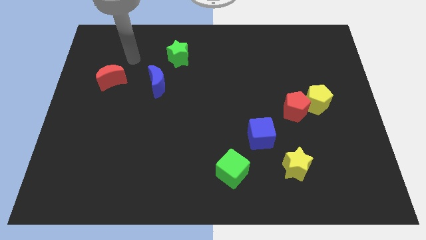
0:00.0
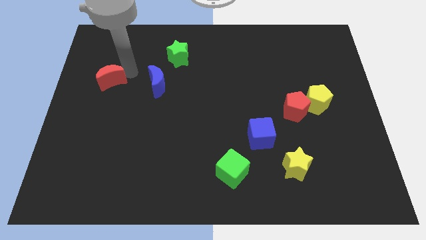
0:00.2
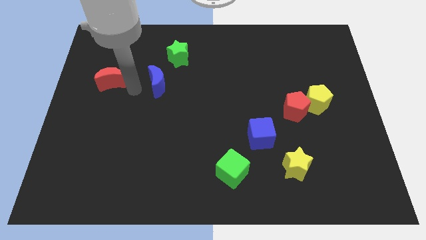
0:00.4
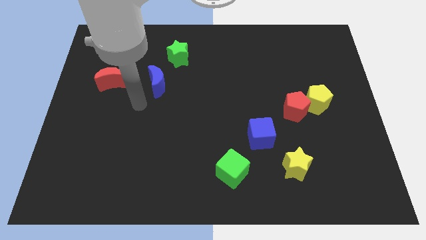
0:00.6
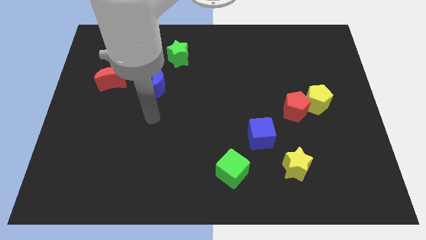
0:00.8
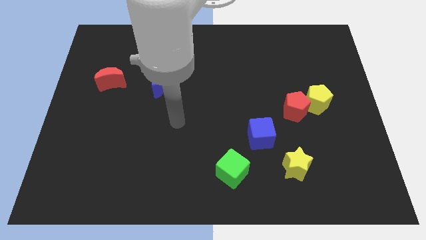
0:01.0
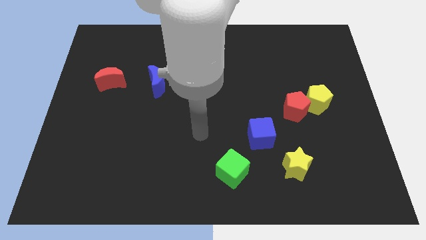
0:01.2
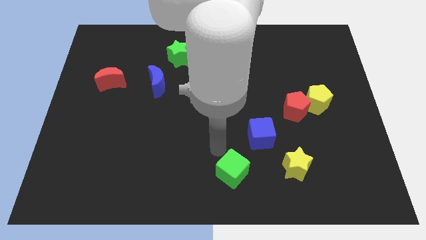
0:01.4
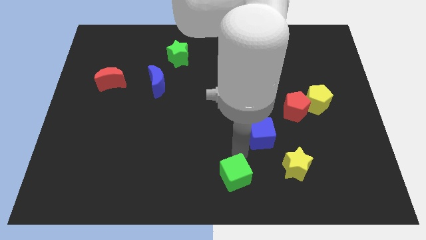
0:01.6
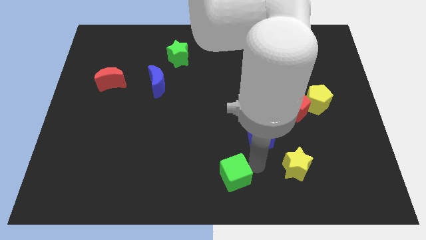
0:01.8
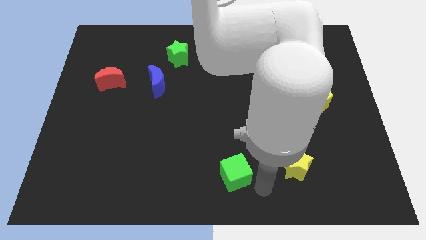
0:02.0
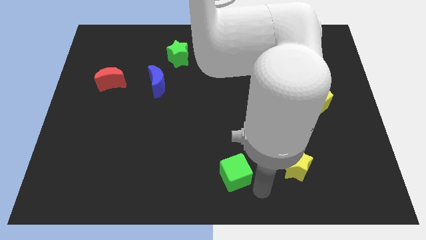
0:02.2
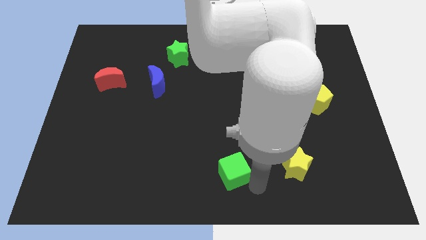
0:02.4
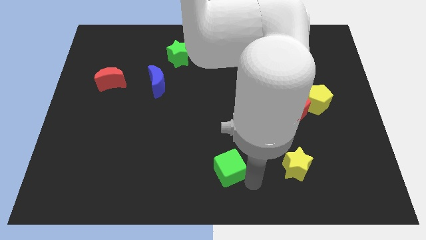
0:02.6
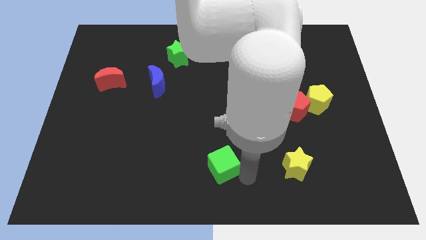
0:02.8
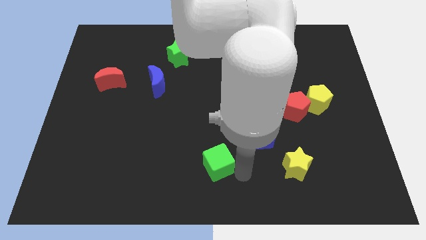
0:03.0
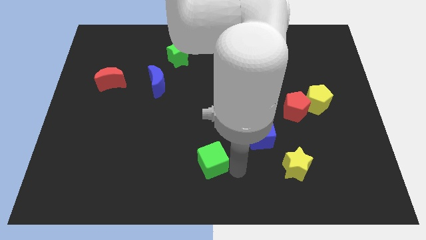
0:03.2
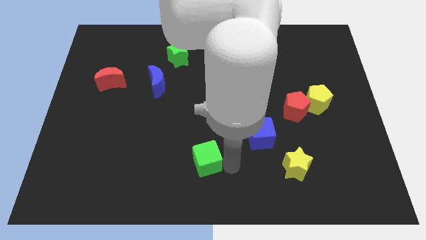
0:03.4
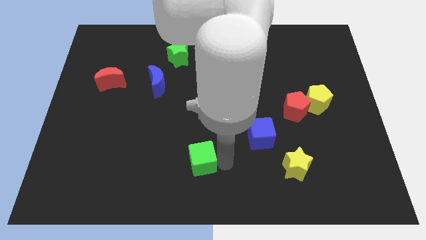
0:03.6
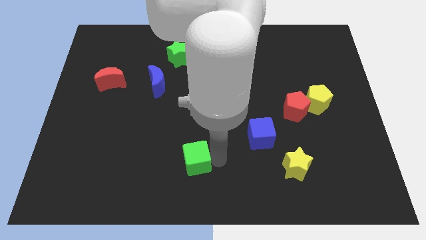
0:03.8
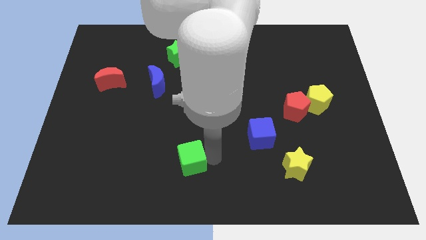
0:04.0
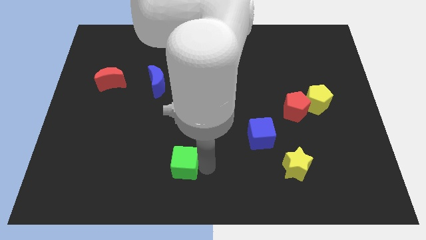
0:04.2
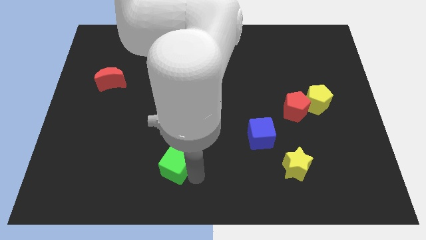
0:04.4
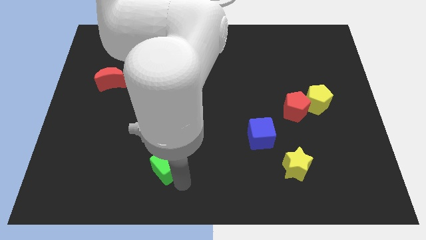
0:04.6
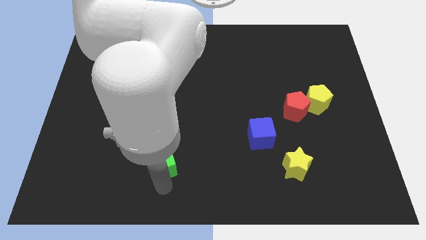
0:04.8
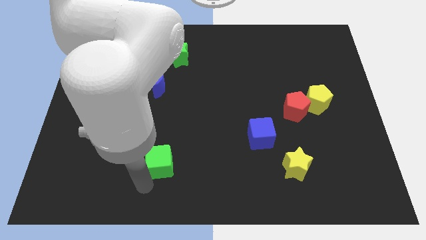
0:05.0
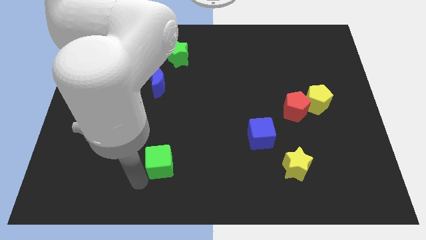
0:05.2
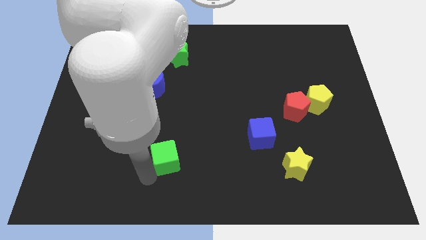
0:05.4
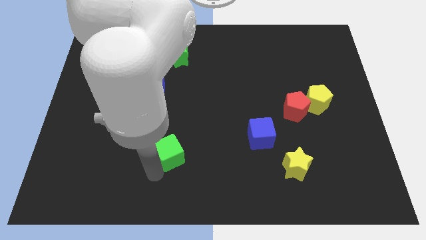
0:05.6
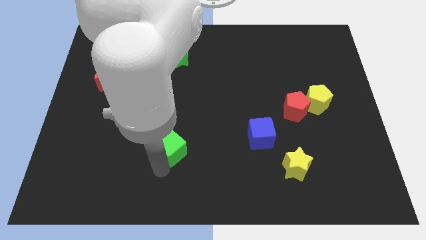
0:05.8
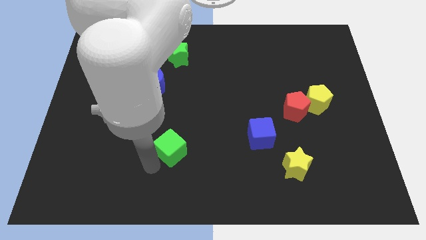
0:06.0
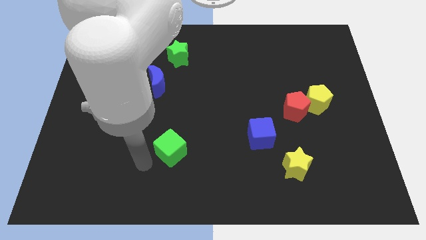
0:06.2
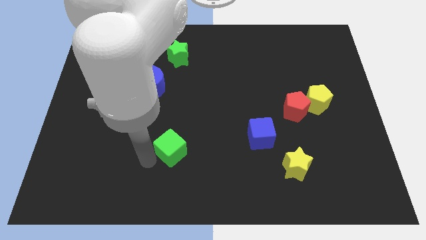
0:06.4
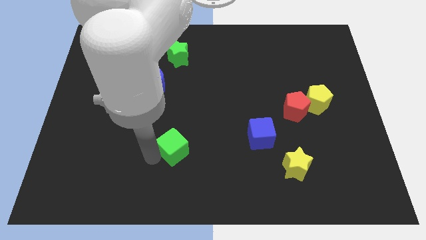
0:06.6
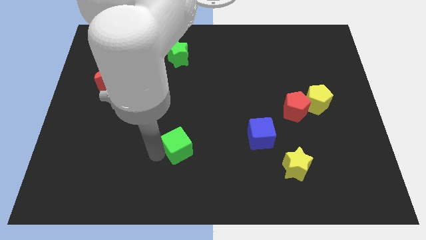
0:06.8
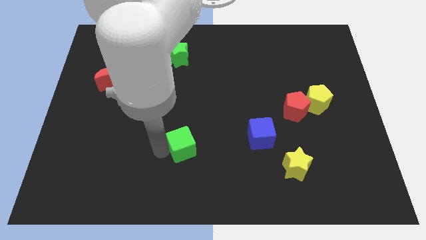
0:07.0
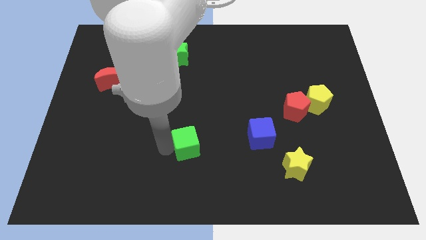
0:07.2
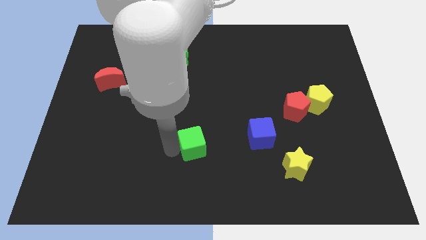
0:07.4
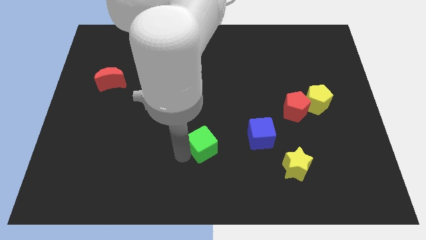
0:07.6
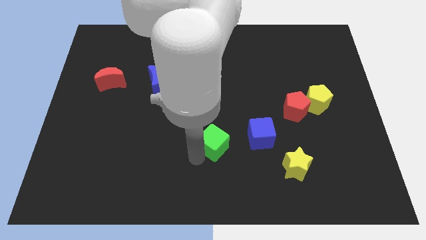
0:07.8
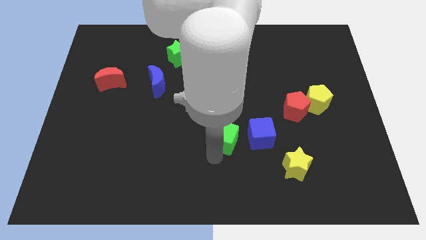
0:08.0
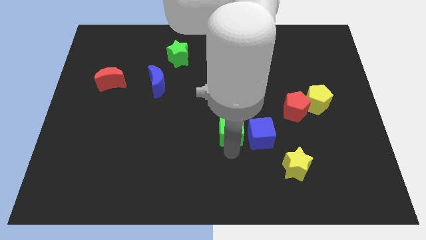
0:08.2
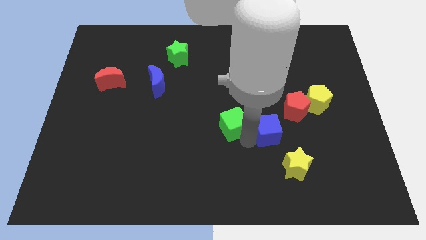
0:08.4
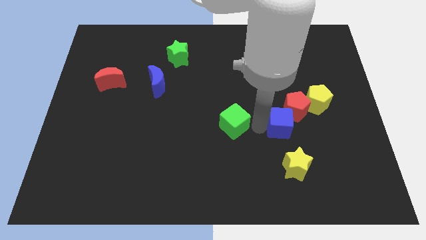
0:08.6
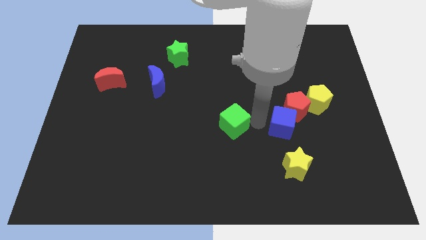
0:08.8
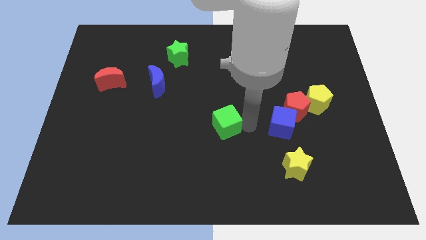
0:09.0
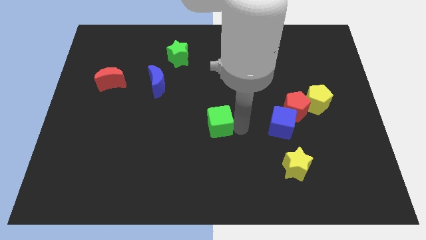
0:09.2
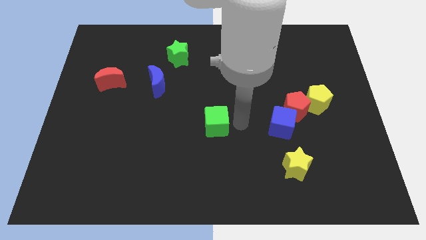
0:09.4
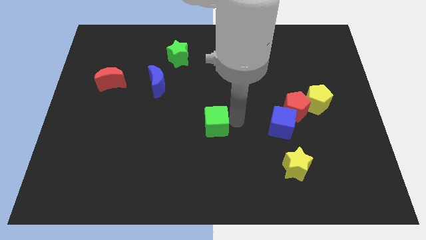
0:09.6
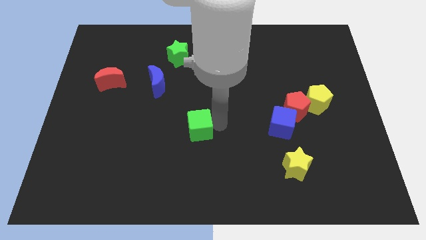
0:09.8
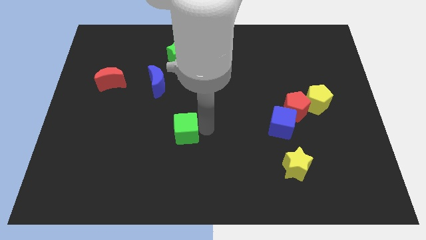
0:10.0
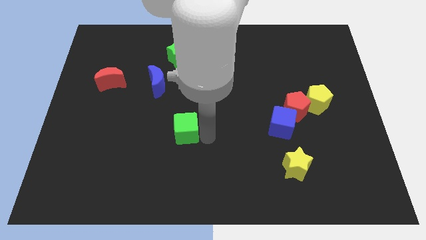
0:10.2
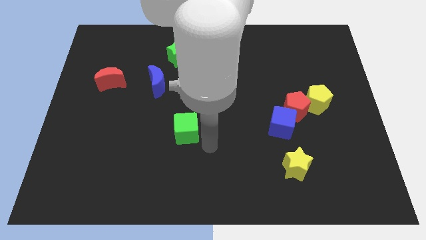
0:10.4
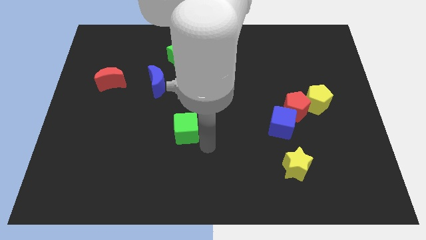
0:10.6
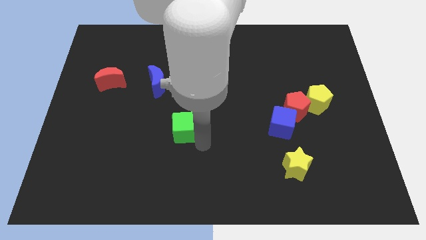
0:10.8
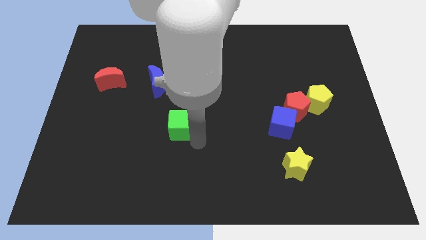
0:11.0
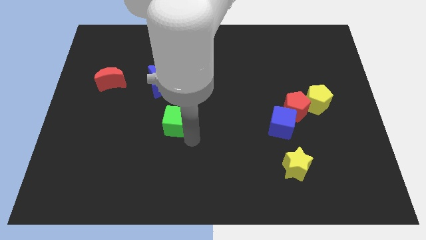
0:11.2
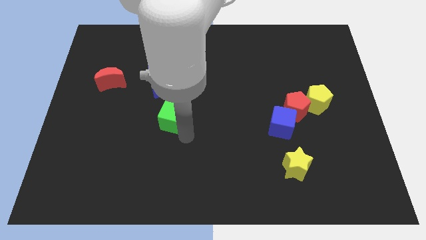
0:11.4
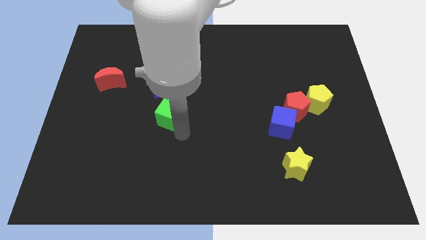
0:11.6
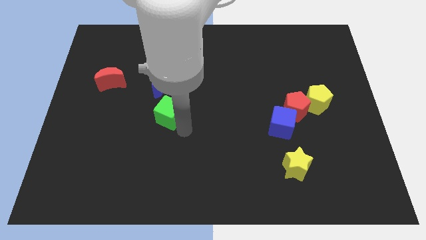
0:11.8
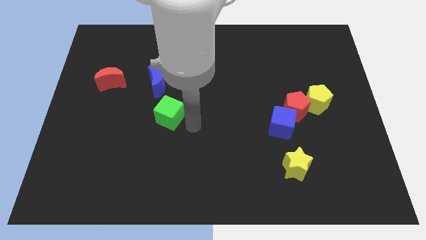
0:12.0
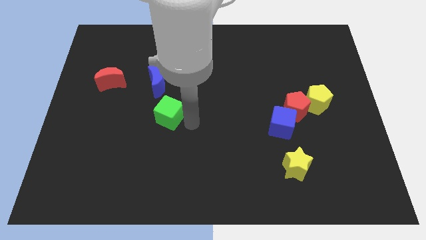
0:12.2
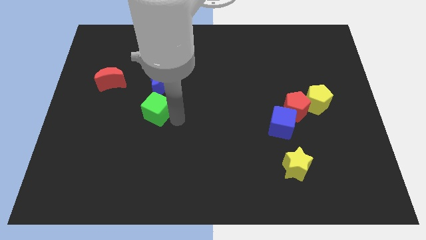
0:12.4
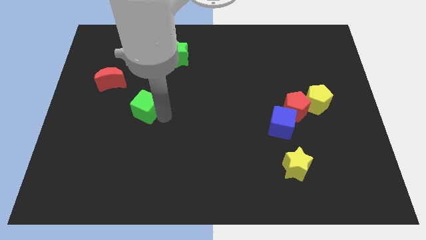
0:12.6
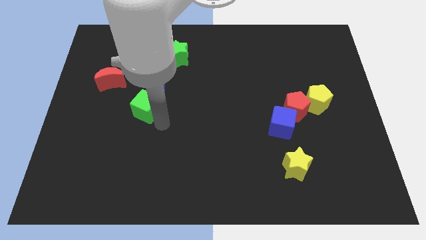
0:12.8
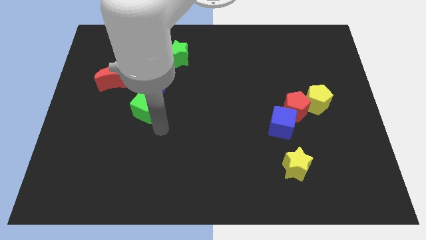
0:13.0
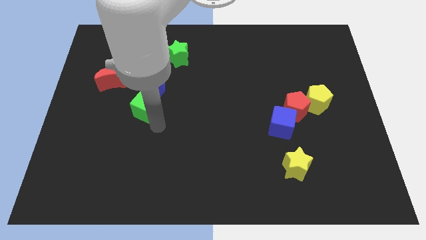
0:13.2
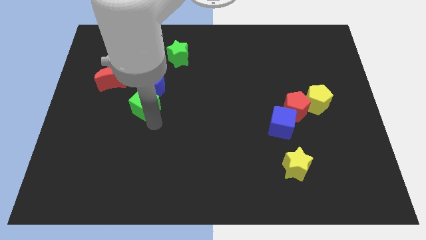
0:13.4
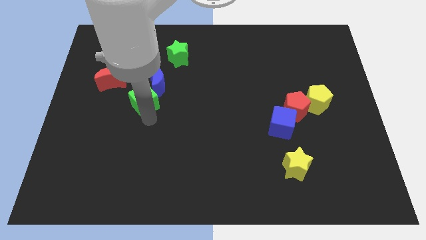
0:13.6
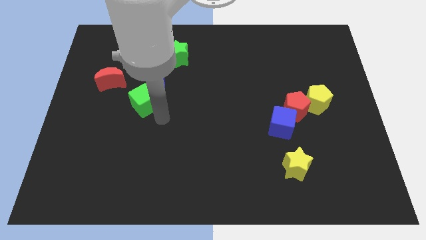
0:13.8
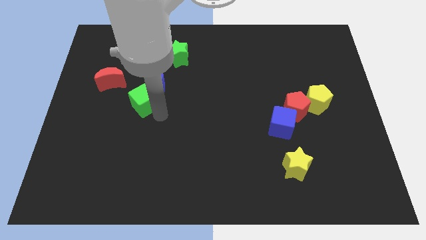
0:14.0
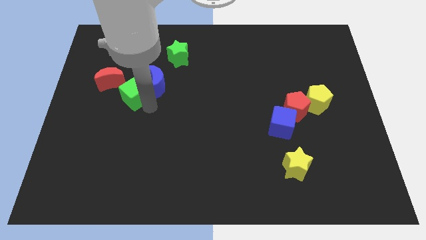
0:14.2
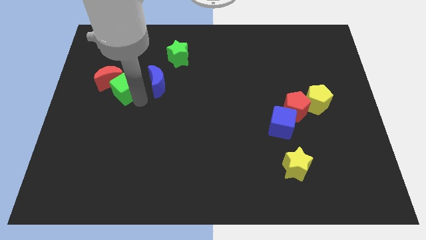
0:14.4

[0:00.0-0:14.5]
push the green cube towards the red moon
